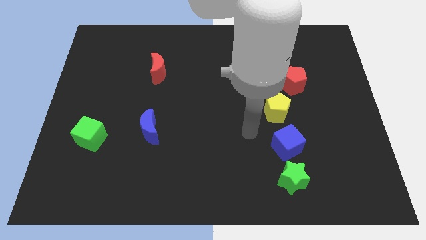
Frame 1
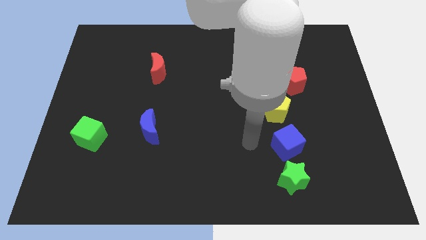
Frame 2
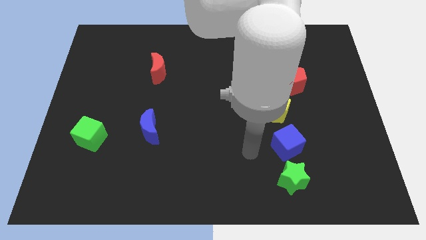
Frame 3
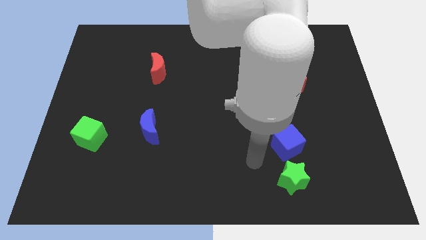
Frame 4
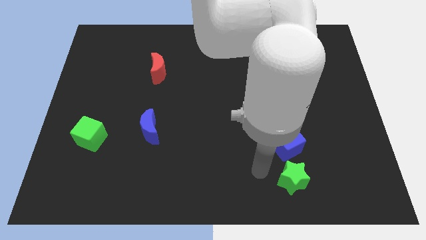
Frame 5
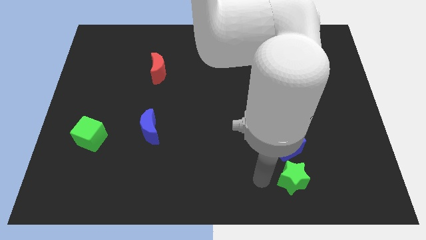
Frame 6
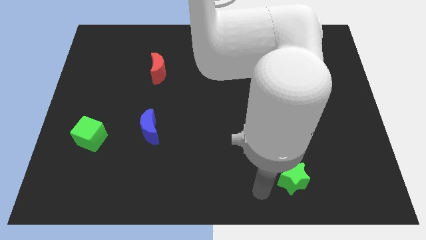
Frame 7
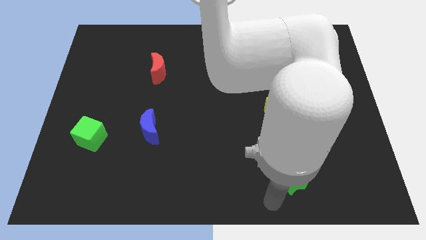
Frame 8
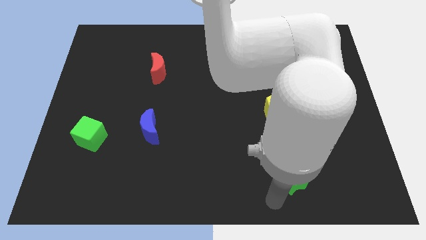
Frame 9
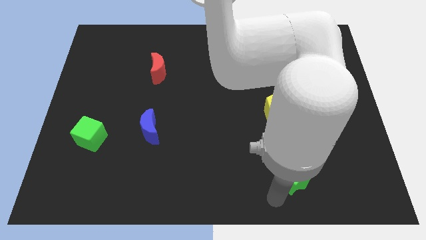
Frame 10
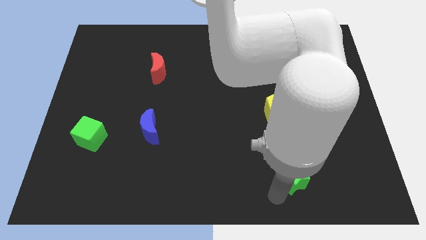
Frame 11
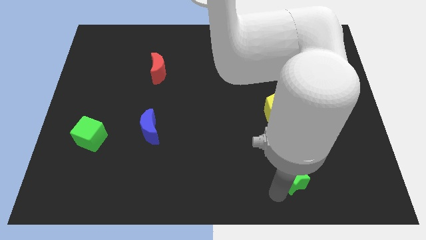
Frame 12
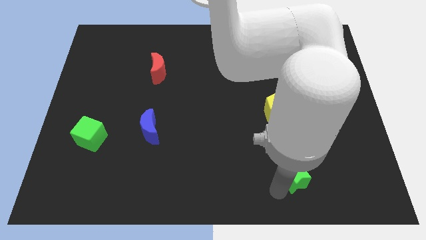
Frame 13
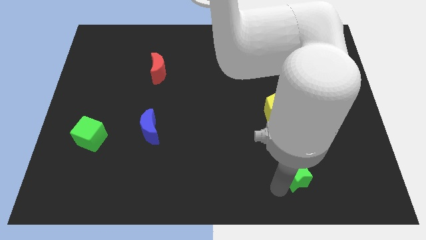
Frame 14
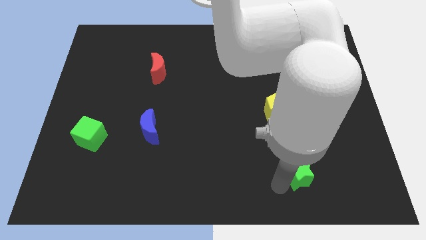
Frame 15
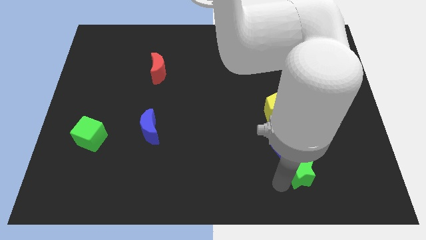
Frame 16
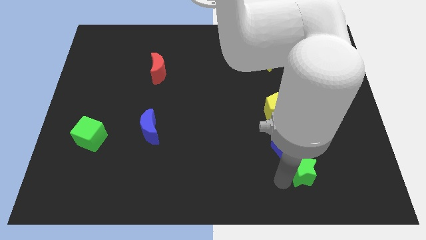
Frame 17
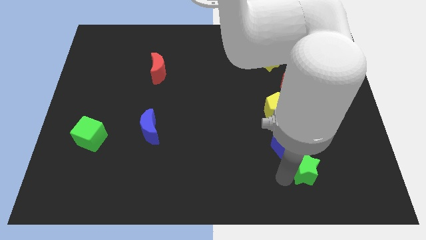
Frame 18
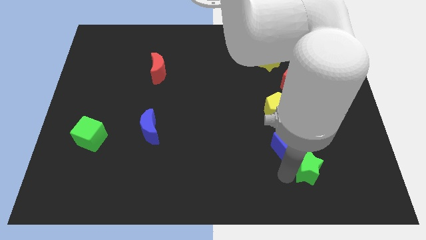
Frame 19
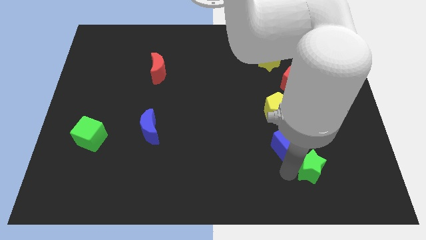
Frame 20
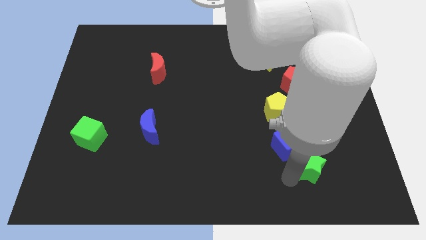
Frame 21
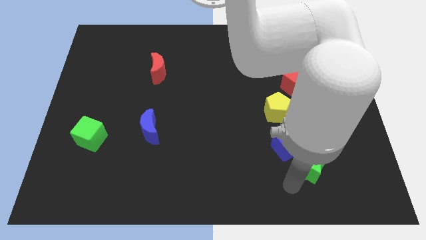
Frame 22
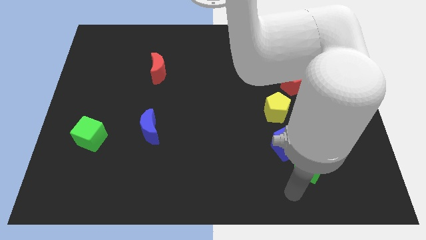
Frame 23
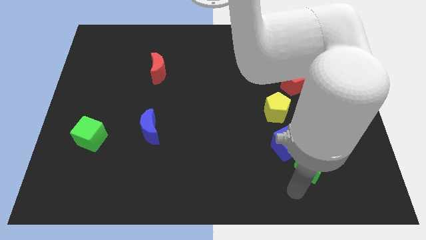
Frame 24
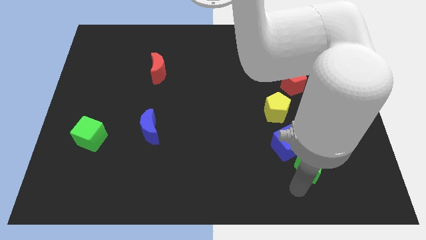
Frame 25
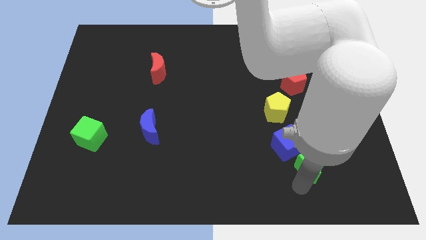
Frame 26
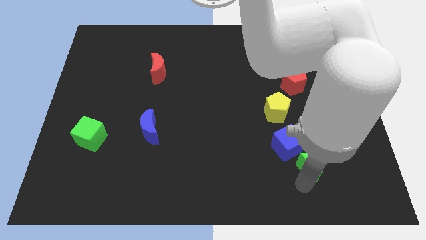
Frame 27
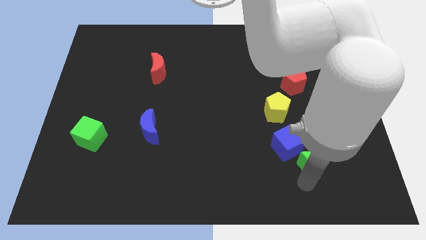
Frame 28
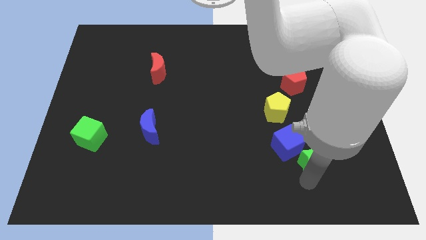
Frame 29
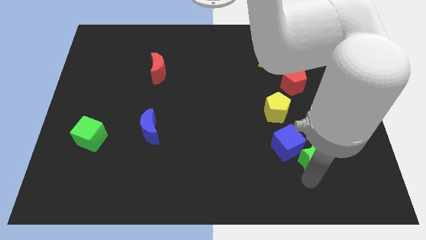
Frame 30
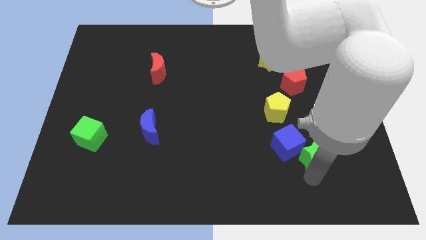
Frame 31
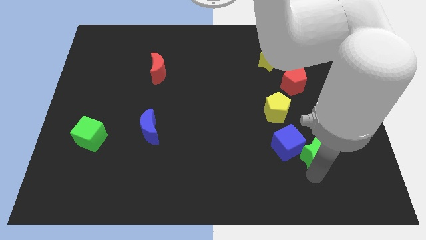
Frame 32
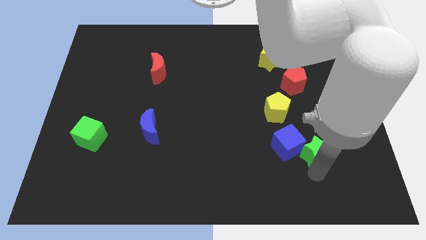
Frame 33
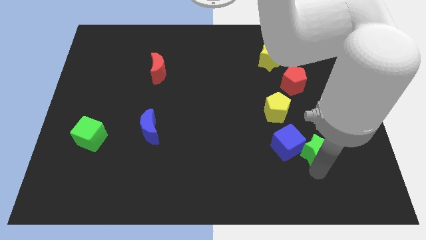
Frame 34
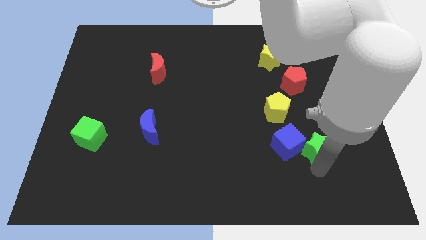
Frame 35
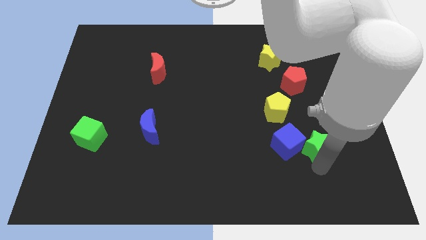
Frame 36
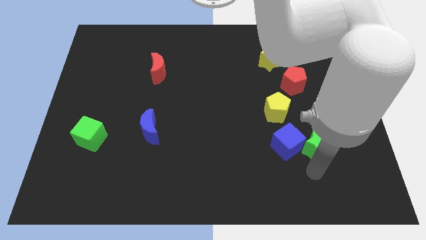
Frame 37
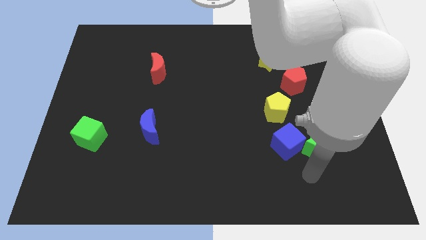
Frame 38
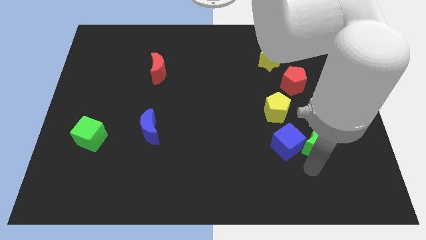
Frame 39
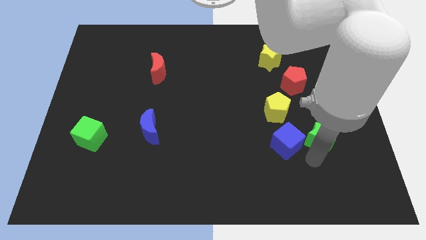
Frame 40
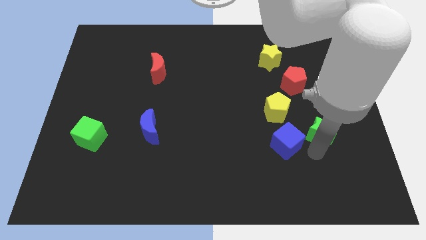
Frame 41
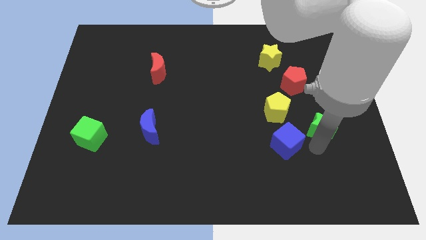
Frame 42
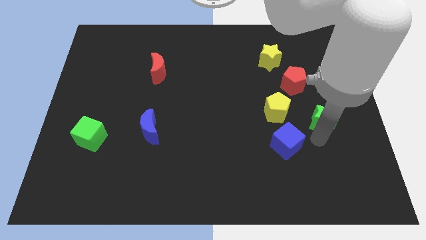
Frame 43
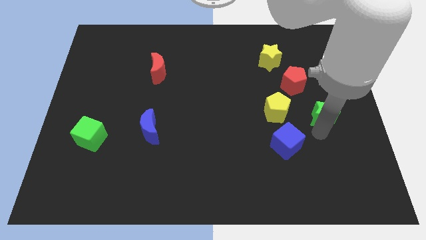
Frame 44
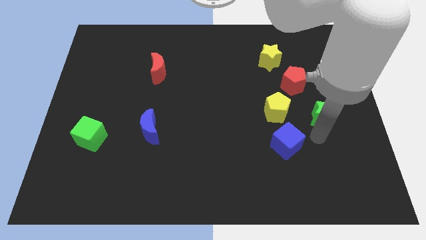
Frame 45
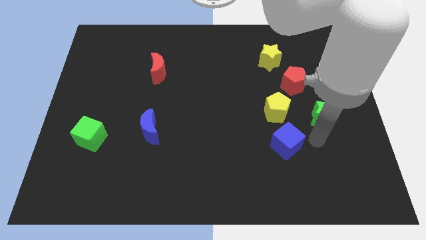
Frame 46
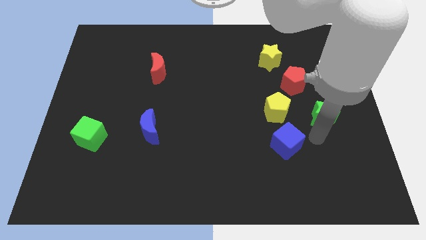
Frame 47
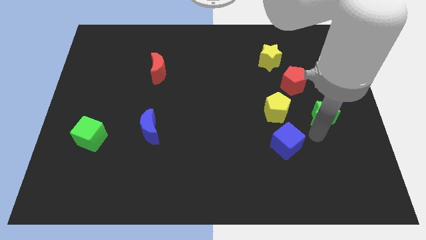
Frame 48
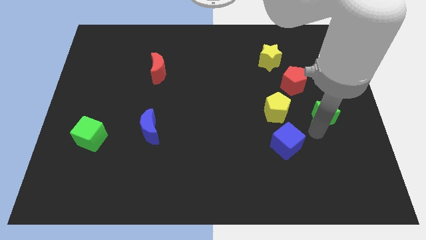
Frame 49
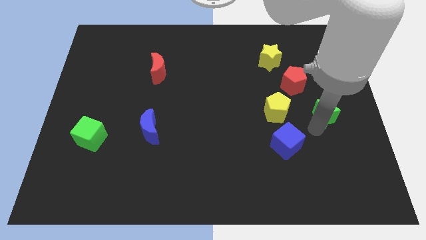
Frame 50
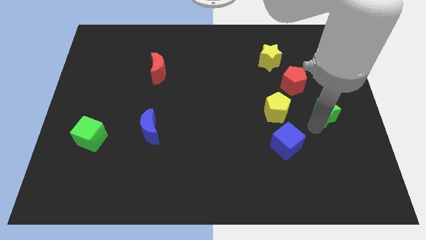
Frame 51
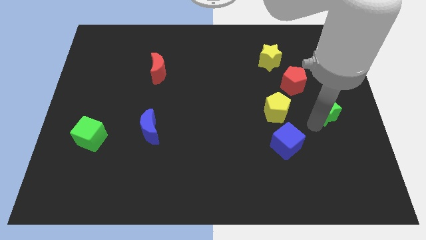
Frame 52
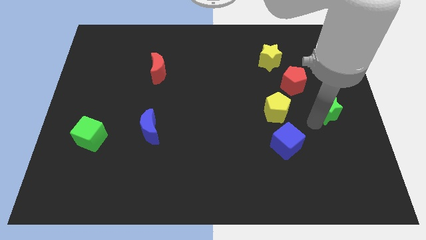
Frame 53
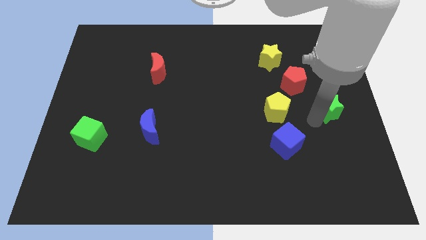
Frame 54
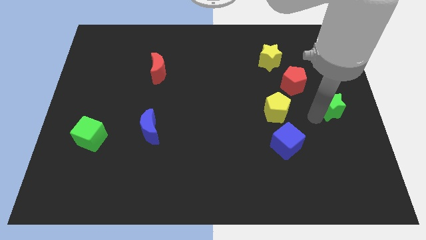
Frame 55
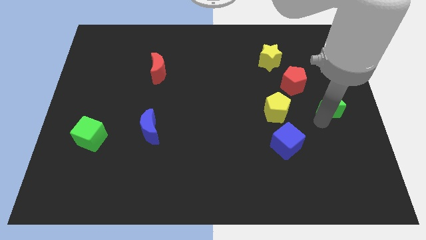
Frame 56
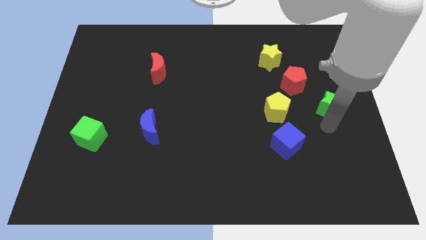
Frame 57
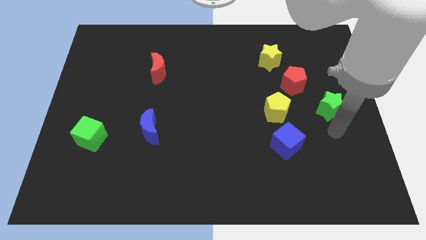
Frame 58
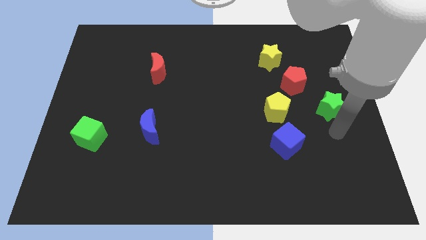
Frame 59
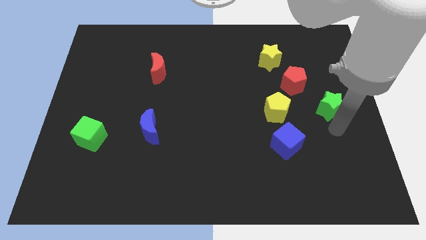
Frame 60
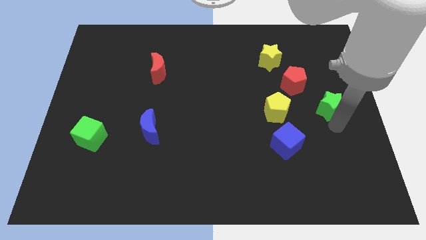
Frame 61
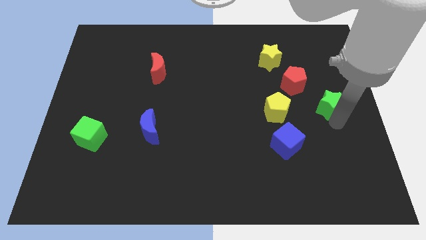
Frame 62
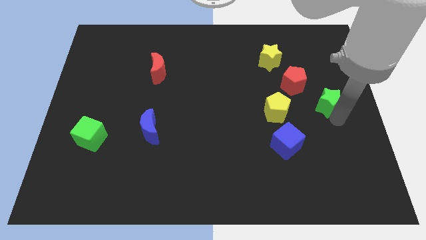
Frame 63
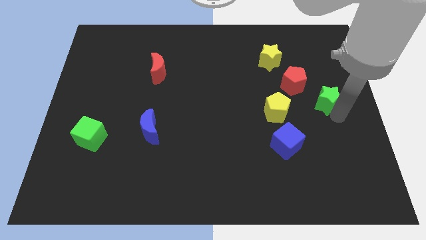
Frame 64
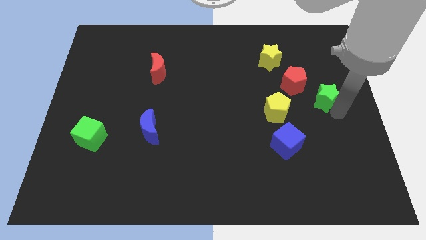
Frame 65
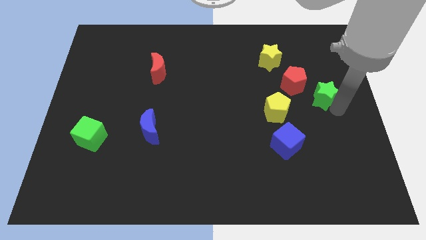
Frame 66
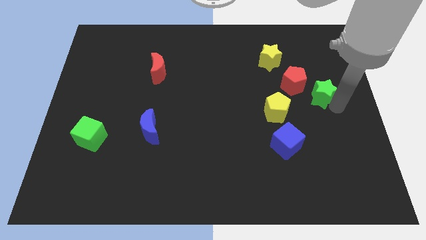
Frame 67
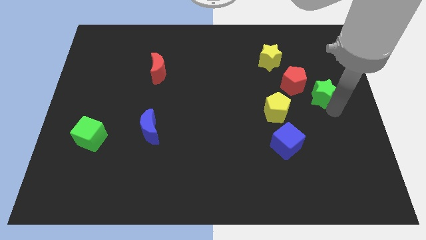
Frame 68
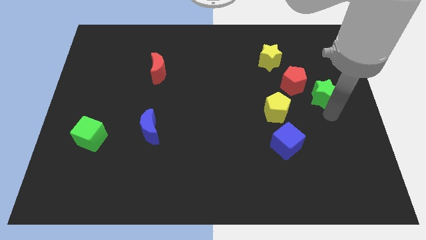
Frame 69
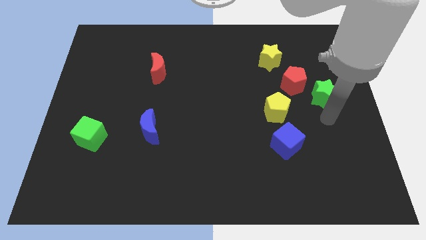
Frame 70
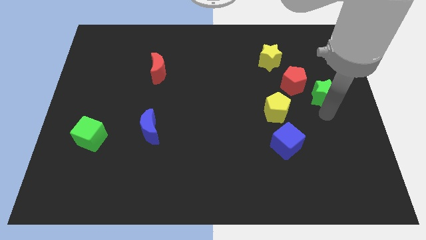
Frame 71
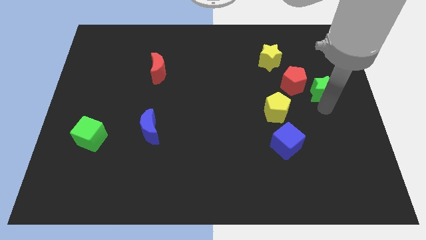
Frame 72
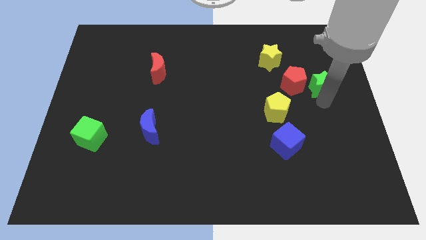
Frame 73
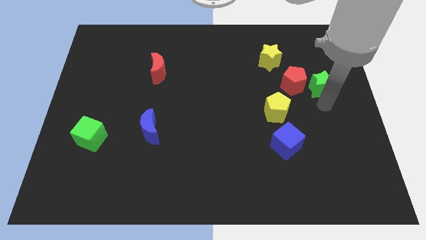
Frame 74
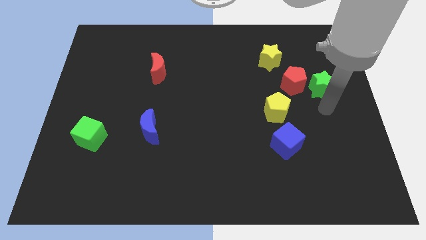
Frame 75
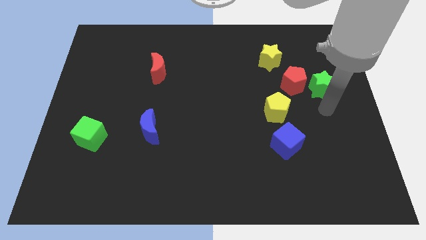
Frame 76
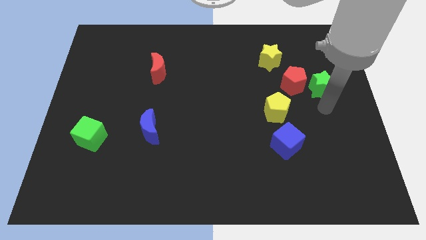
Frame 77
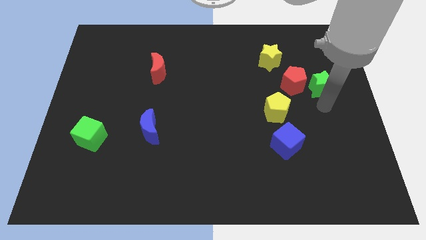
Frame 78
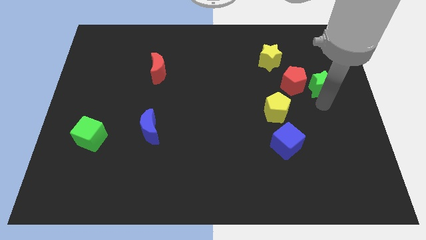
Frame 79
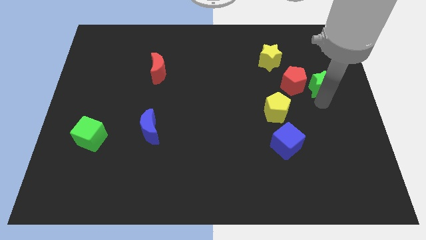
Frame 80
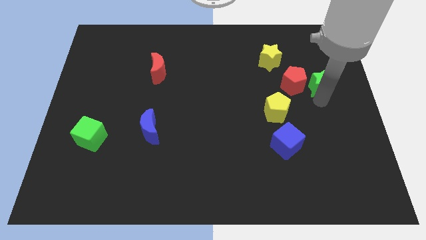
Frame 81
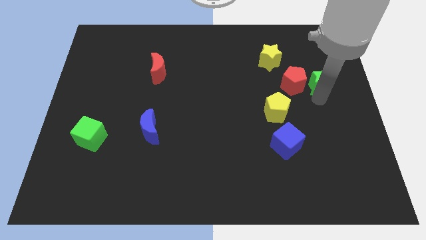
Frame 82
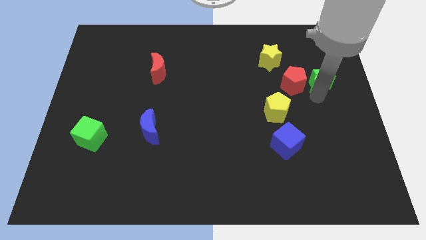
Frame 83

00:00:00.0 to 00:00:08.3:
move the green star to the top right of the red pentagon
